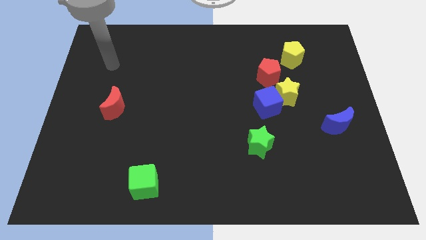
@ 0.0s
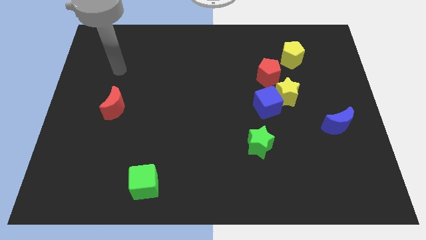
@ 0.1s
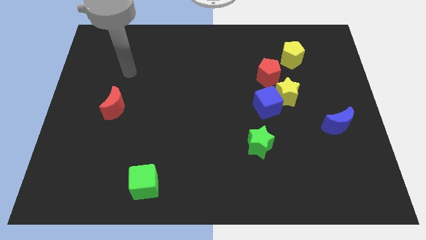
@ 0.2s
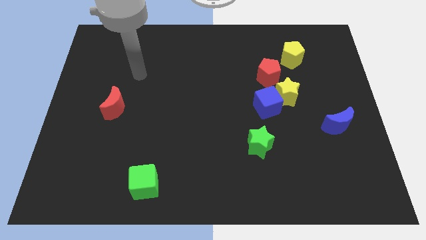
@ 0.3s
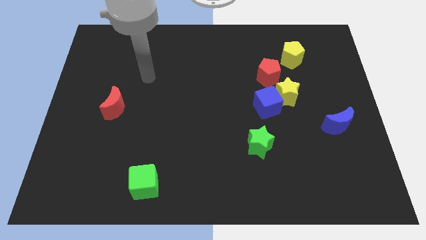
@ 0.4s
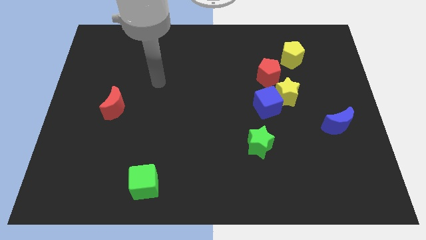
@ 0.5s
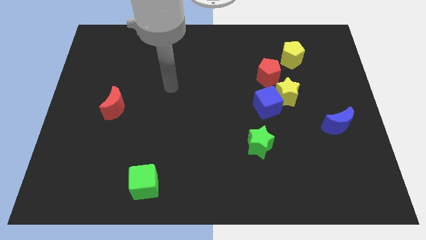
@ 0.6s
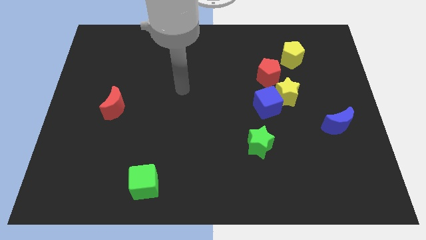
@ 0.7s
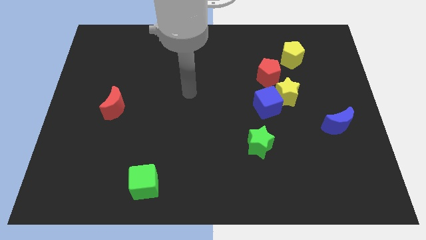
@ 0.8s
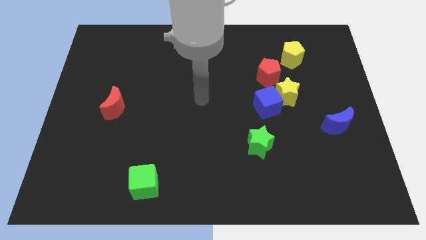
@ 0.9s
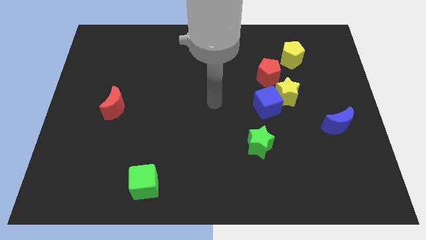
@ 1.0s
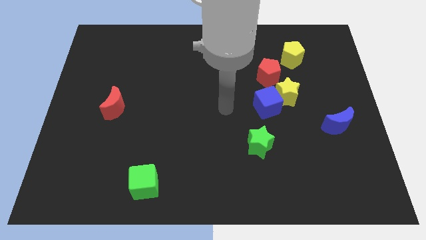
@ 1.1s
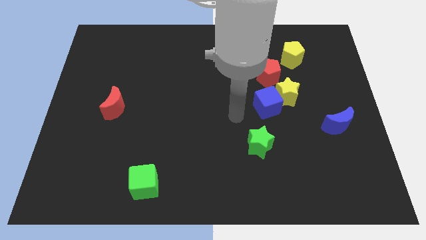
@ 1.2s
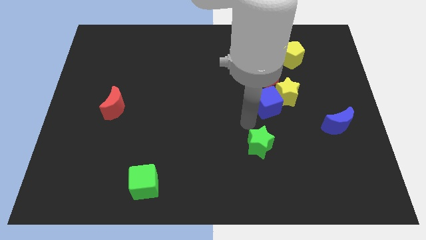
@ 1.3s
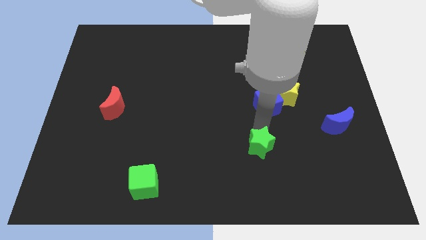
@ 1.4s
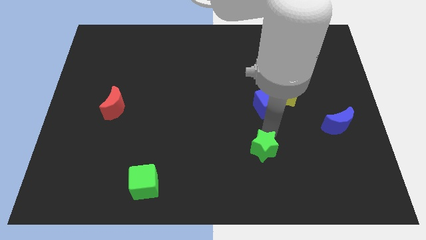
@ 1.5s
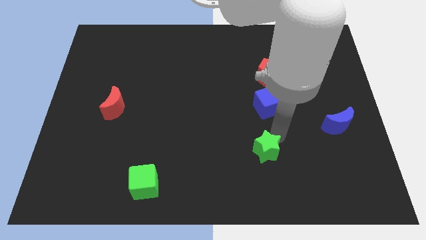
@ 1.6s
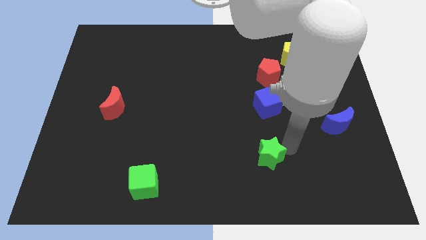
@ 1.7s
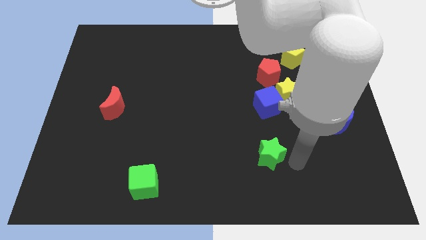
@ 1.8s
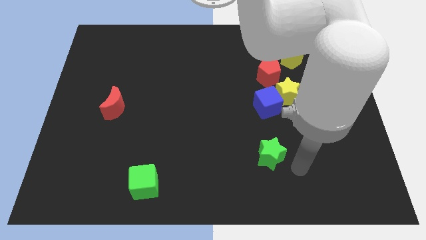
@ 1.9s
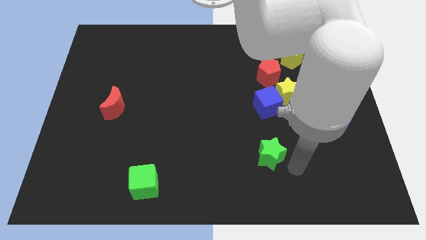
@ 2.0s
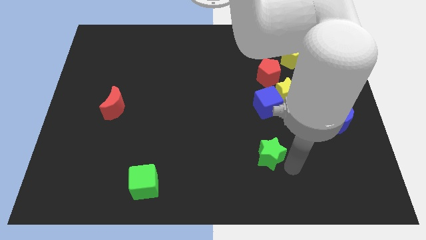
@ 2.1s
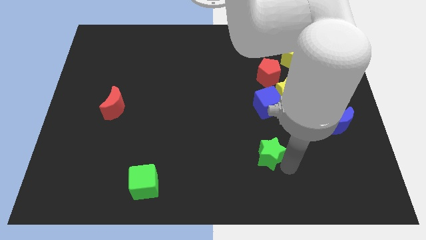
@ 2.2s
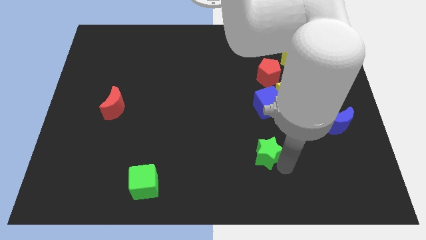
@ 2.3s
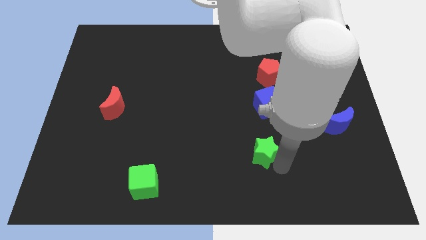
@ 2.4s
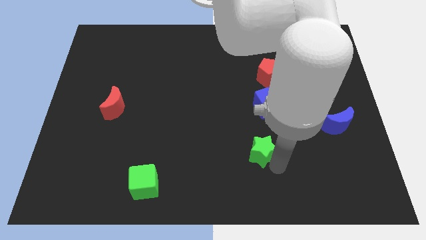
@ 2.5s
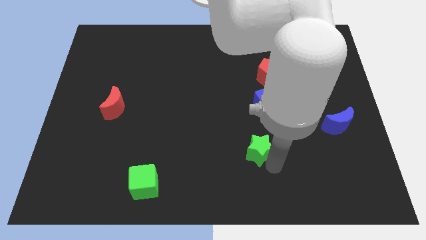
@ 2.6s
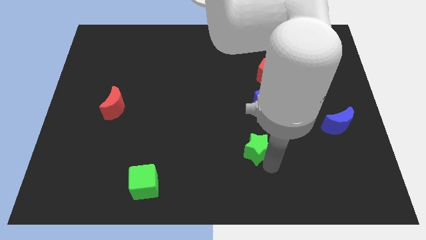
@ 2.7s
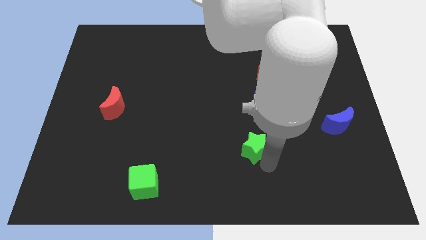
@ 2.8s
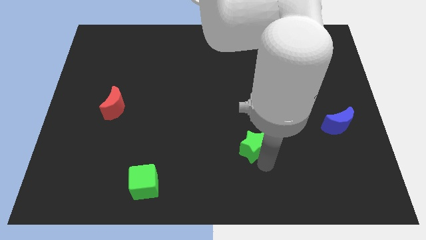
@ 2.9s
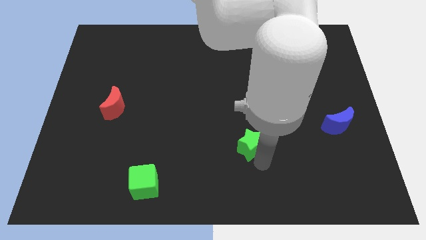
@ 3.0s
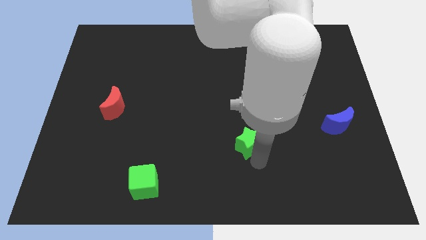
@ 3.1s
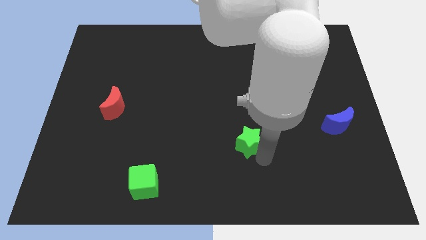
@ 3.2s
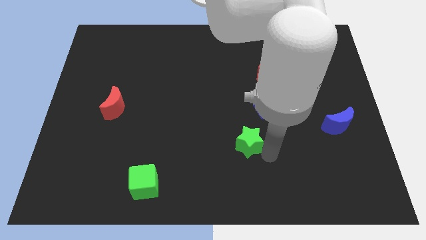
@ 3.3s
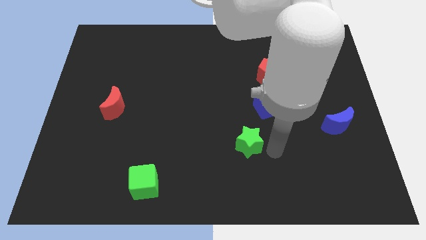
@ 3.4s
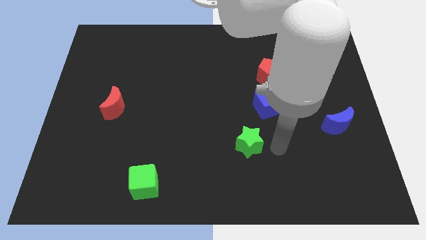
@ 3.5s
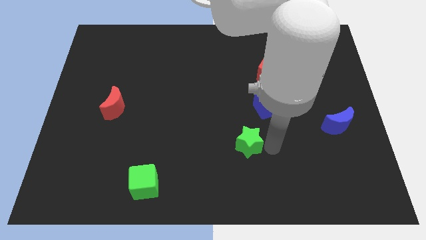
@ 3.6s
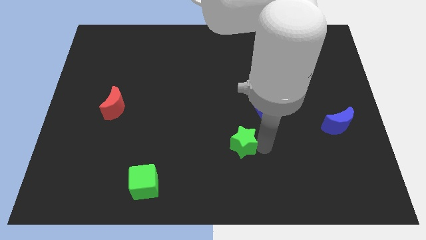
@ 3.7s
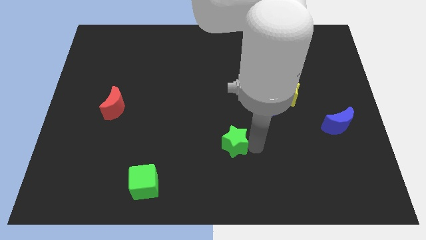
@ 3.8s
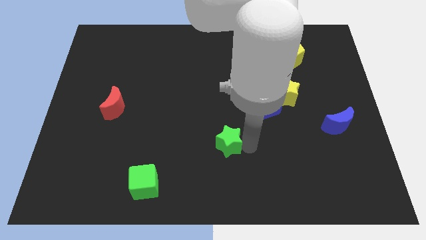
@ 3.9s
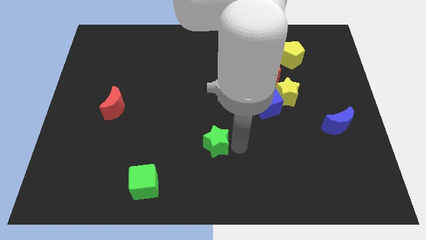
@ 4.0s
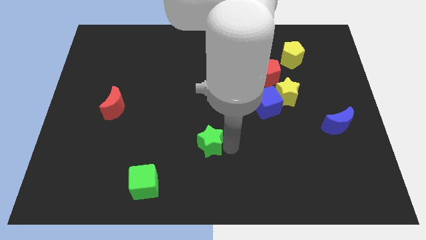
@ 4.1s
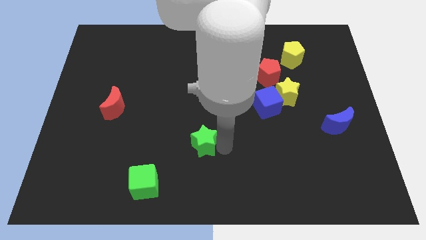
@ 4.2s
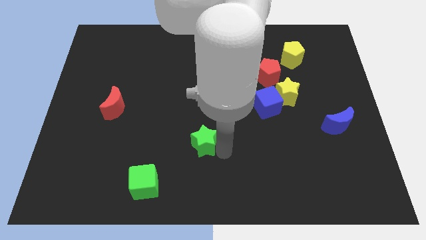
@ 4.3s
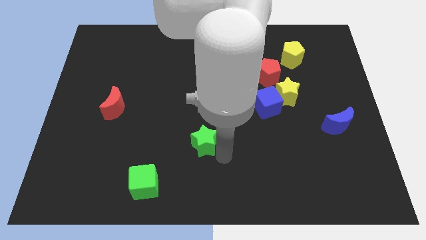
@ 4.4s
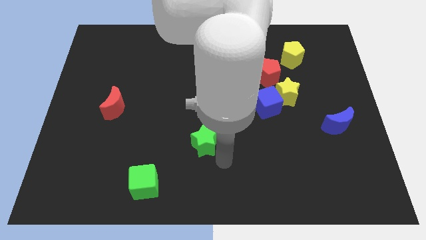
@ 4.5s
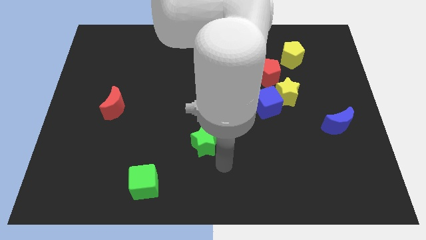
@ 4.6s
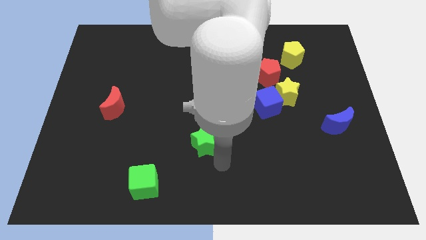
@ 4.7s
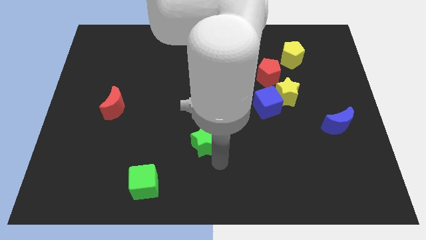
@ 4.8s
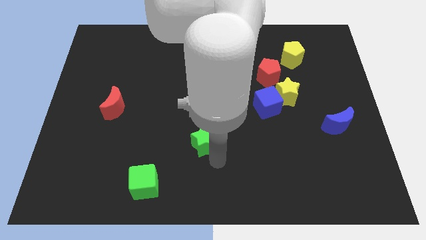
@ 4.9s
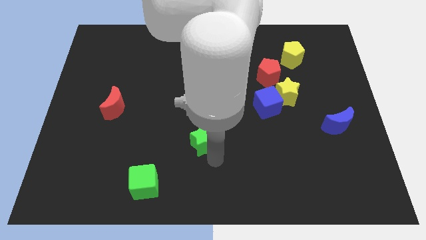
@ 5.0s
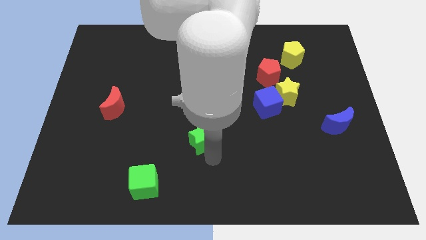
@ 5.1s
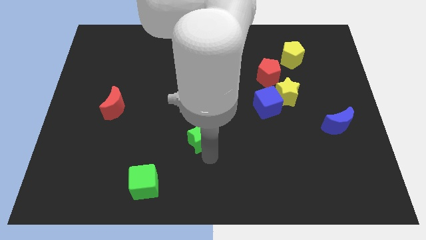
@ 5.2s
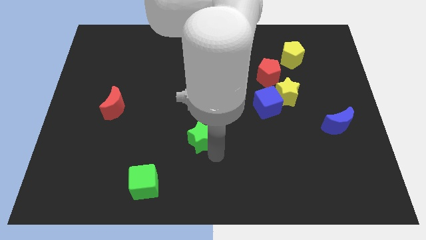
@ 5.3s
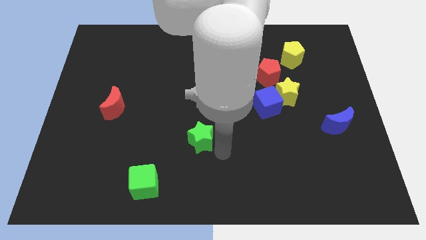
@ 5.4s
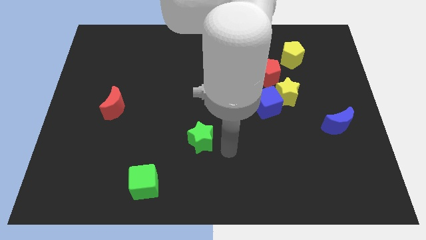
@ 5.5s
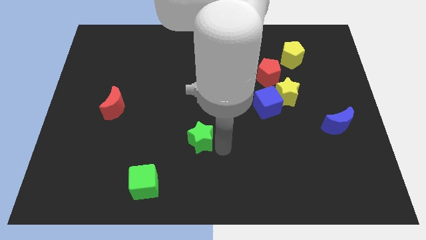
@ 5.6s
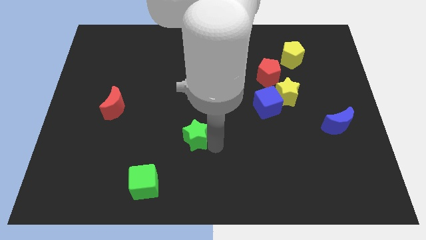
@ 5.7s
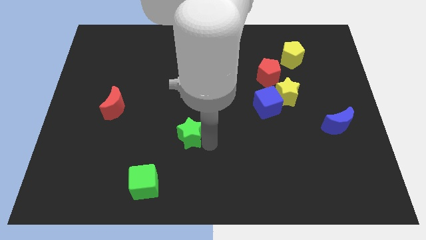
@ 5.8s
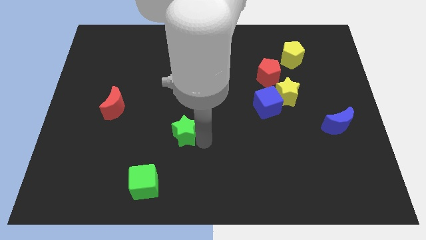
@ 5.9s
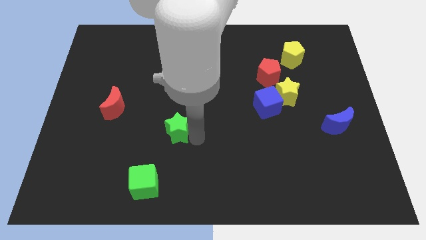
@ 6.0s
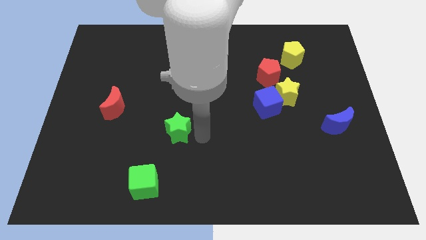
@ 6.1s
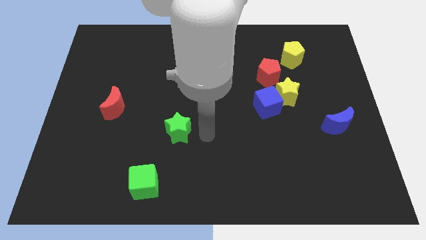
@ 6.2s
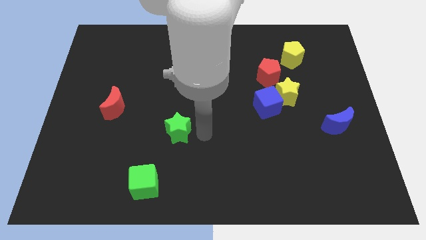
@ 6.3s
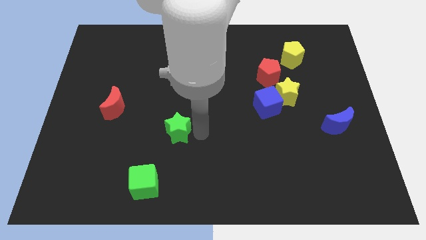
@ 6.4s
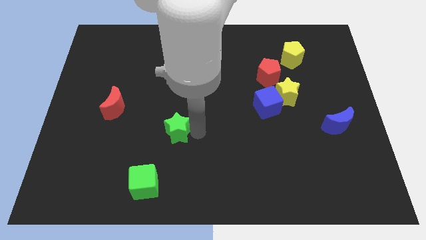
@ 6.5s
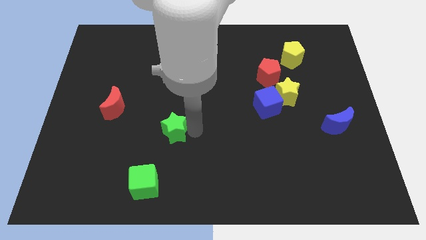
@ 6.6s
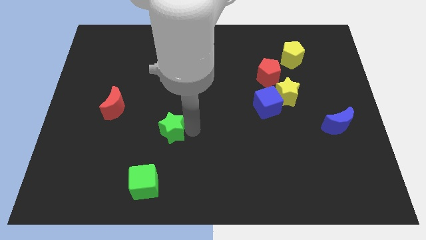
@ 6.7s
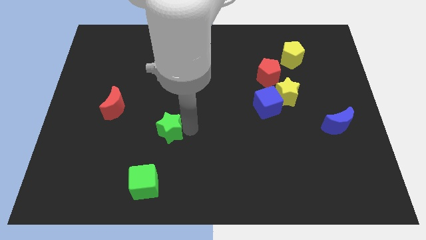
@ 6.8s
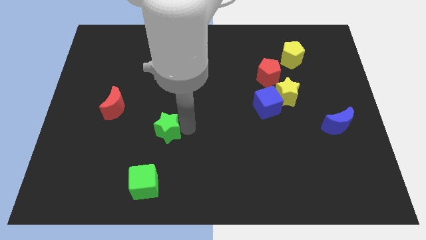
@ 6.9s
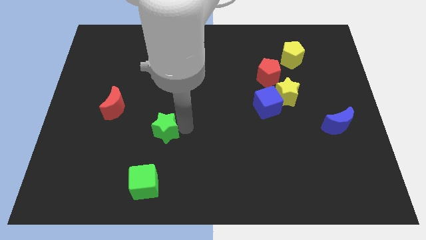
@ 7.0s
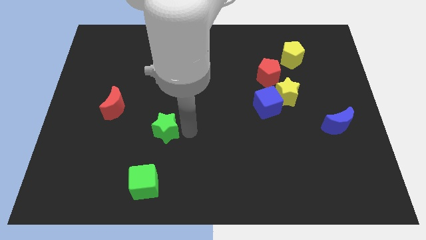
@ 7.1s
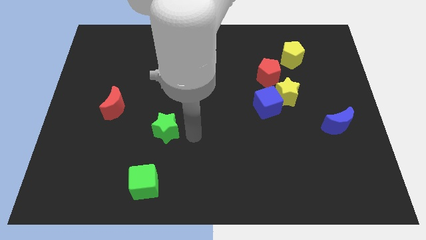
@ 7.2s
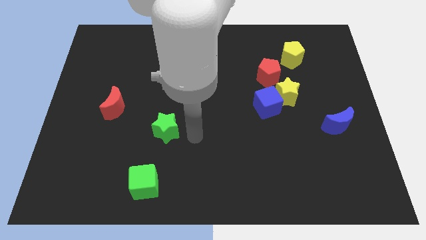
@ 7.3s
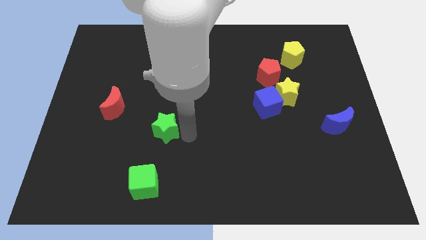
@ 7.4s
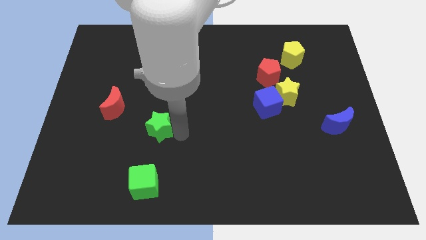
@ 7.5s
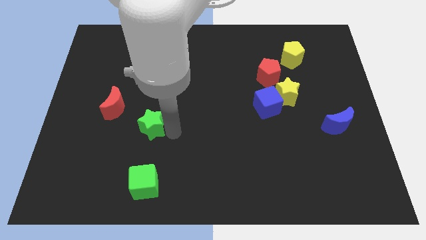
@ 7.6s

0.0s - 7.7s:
push the green star to the bottom right of the red moon
